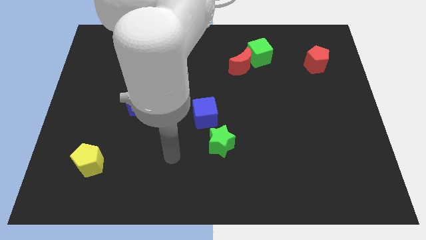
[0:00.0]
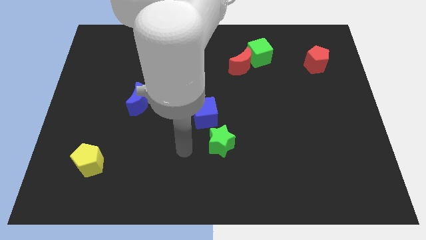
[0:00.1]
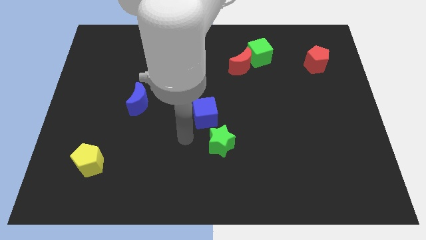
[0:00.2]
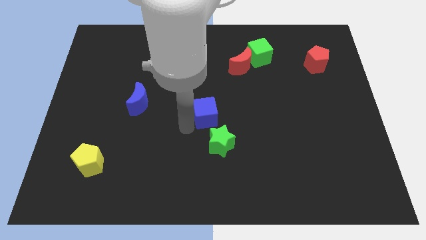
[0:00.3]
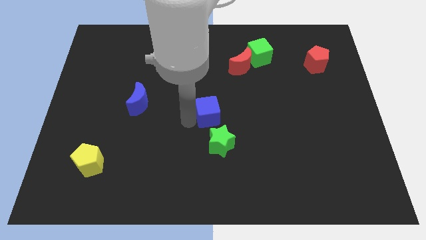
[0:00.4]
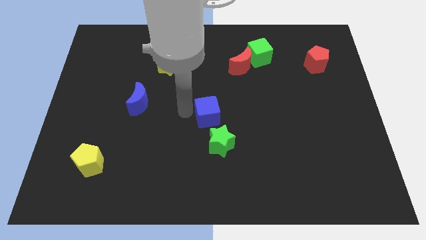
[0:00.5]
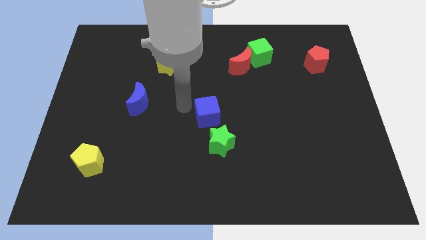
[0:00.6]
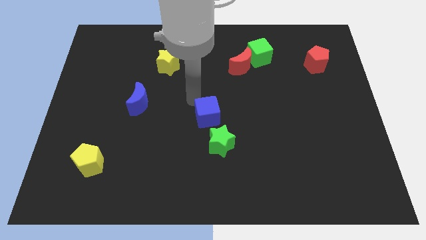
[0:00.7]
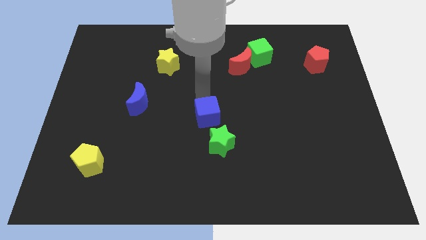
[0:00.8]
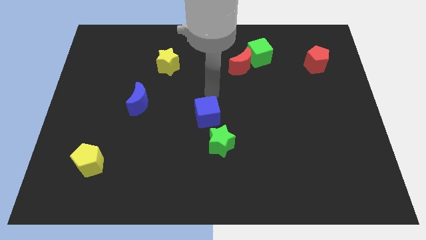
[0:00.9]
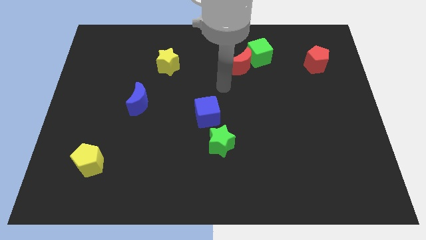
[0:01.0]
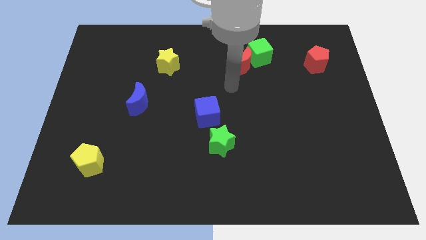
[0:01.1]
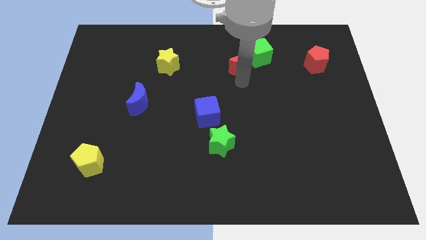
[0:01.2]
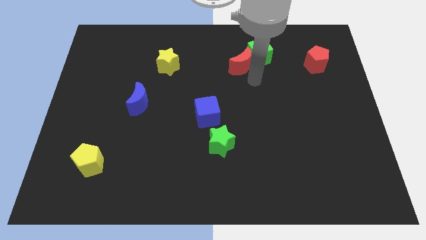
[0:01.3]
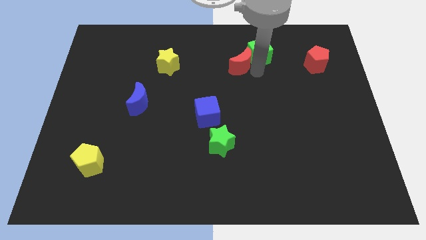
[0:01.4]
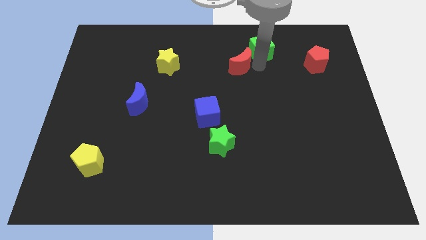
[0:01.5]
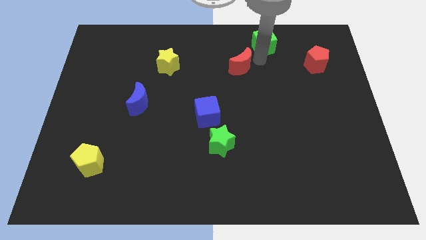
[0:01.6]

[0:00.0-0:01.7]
move the red moon away from the green cube

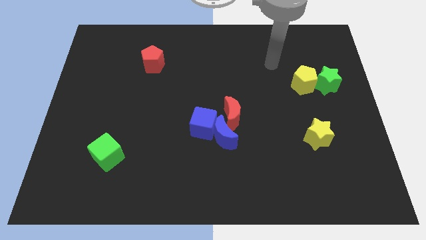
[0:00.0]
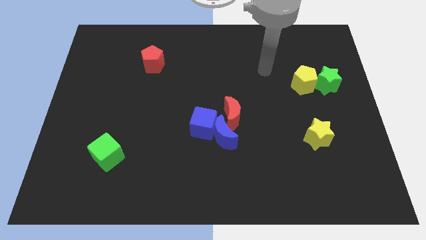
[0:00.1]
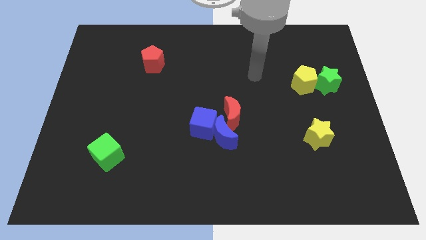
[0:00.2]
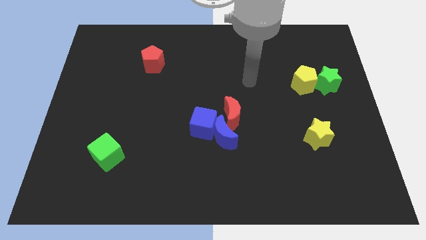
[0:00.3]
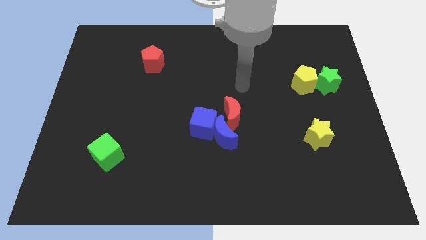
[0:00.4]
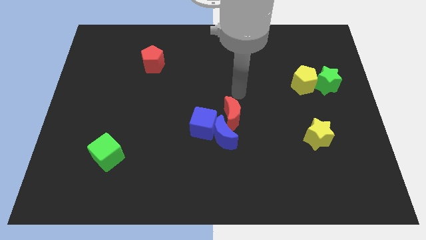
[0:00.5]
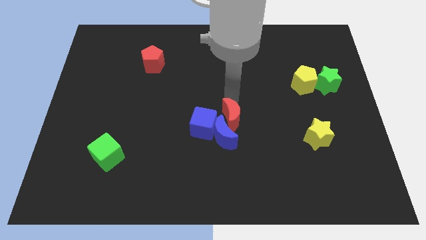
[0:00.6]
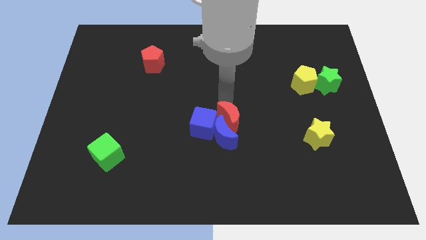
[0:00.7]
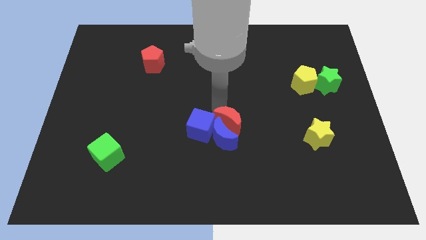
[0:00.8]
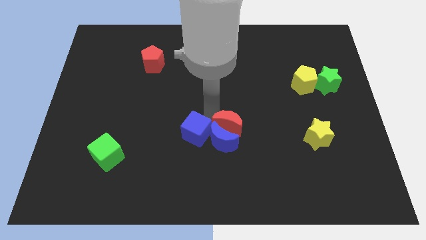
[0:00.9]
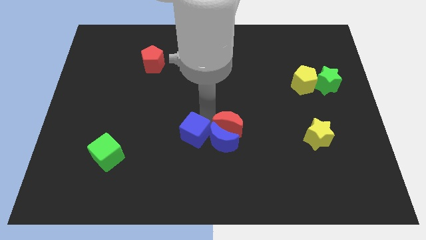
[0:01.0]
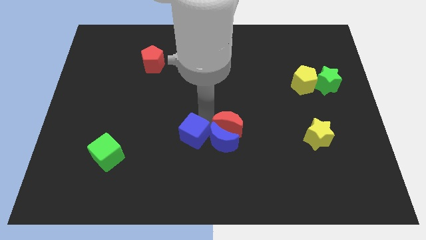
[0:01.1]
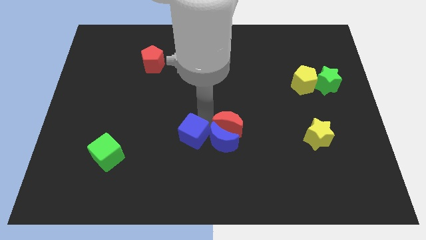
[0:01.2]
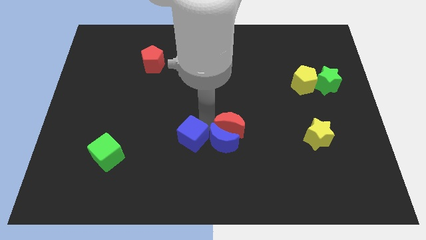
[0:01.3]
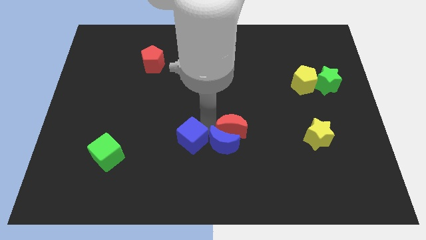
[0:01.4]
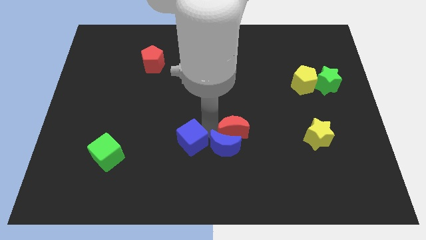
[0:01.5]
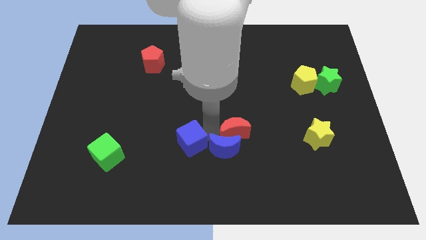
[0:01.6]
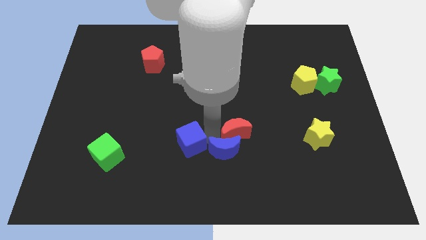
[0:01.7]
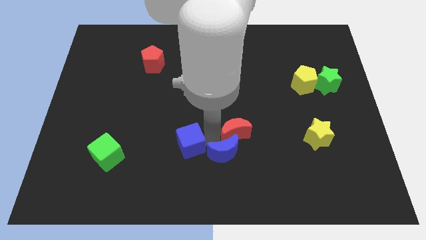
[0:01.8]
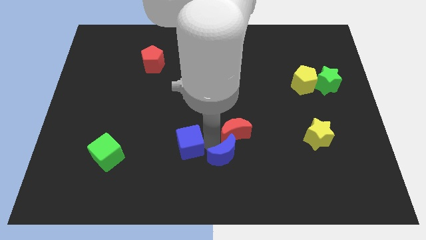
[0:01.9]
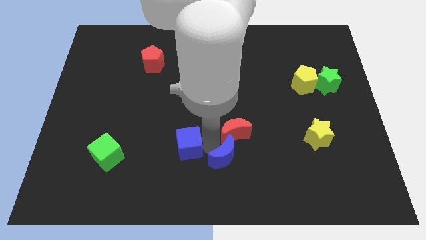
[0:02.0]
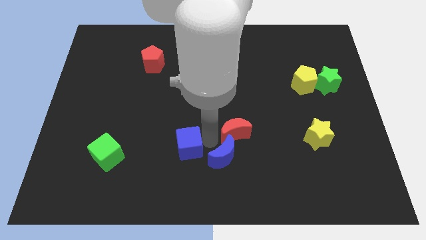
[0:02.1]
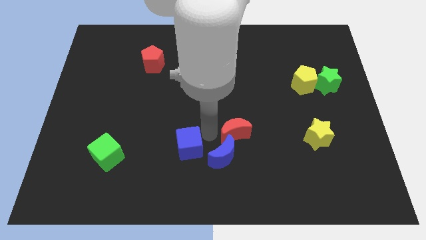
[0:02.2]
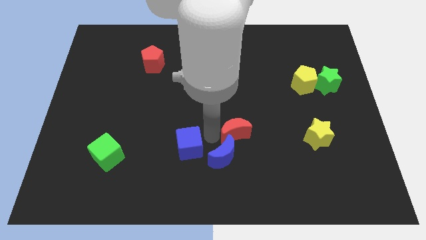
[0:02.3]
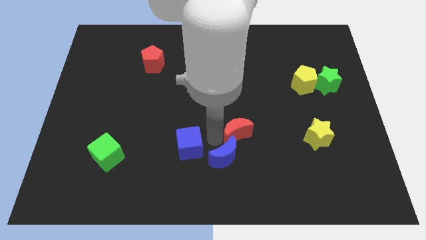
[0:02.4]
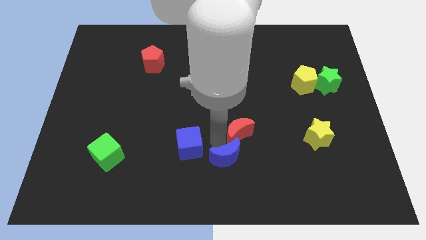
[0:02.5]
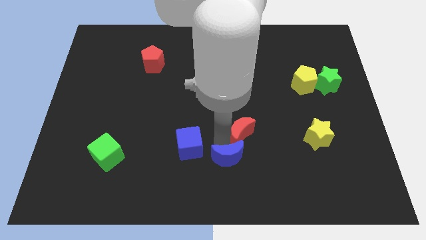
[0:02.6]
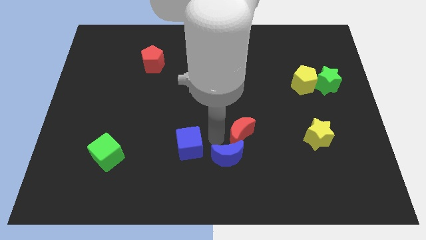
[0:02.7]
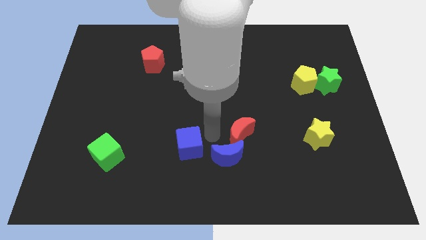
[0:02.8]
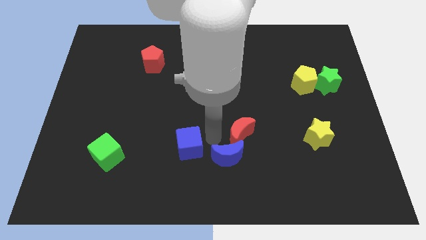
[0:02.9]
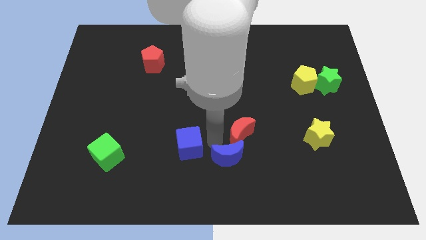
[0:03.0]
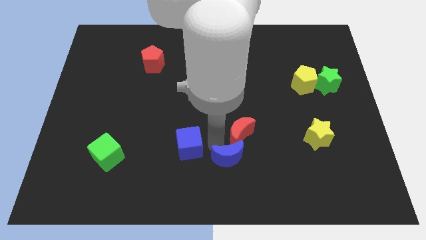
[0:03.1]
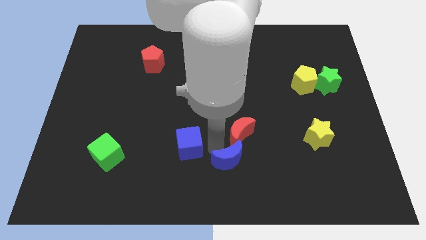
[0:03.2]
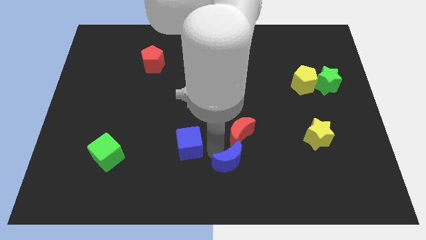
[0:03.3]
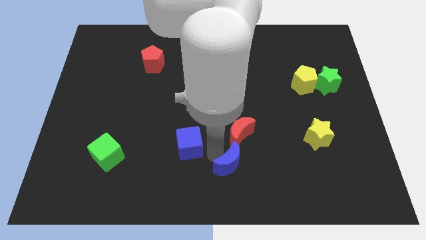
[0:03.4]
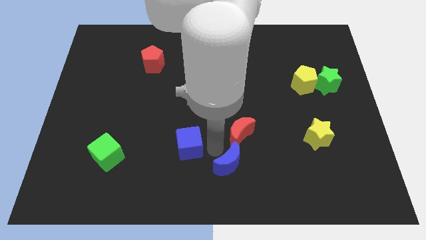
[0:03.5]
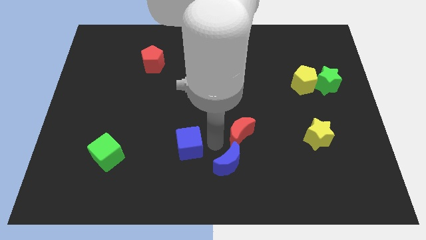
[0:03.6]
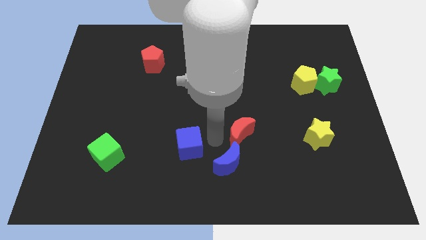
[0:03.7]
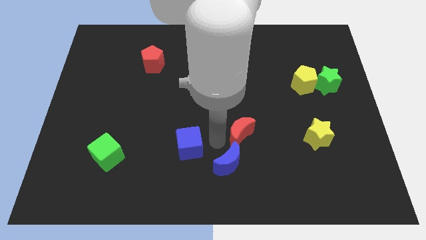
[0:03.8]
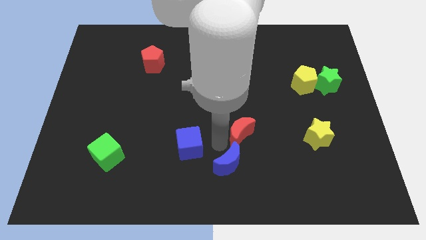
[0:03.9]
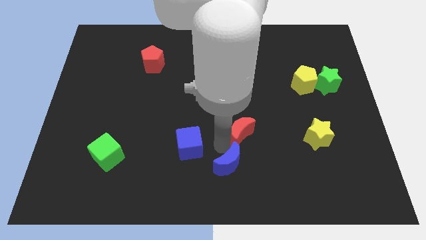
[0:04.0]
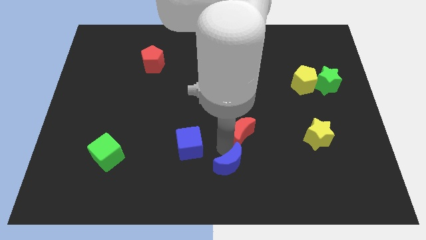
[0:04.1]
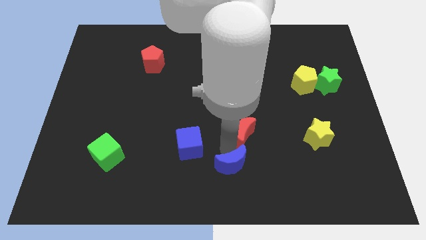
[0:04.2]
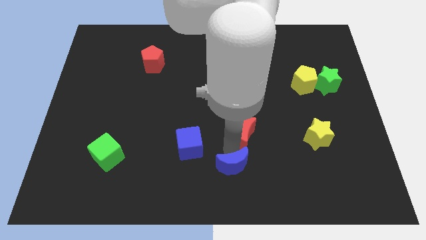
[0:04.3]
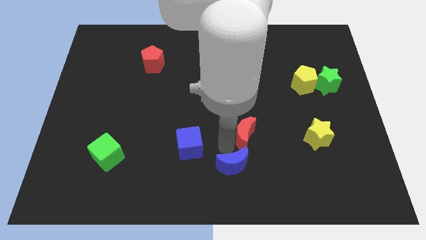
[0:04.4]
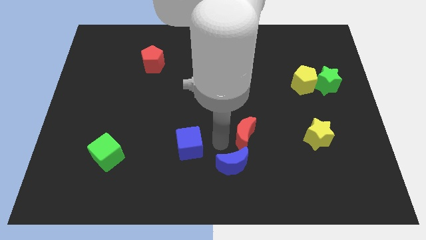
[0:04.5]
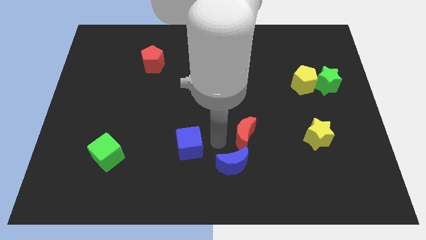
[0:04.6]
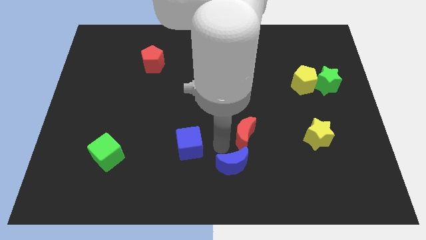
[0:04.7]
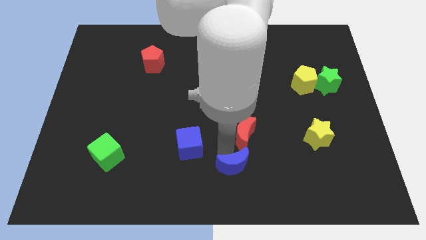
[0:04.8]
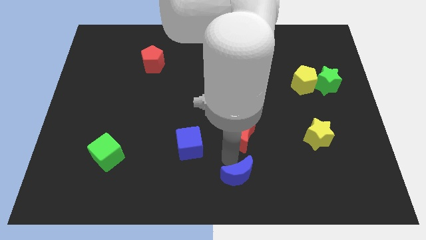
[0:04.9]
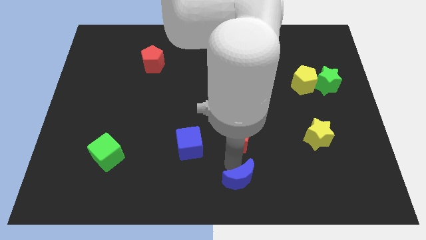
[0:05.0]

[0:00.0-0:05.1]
pull the blue moon apart from the blue cube and red moon

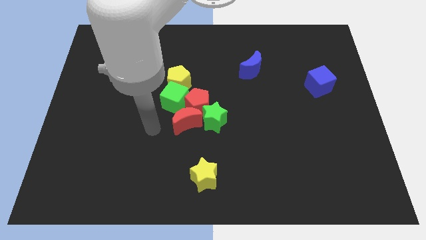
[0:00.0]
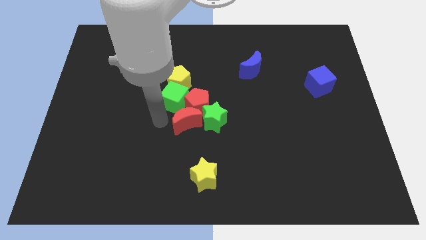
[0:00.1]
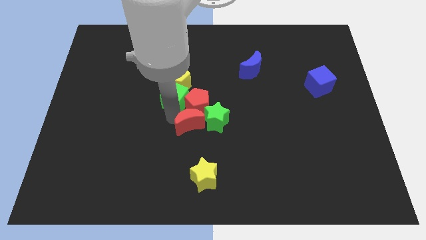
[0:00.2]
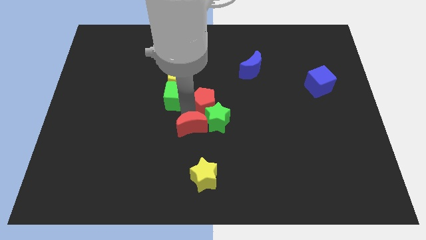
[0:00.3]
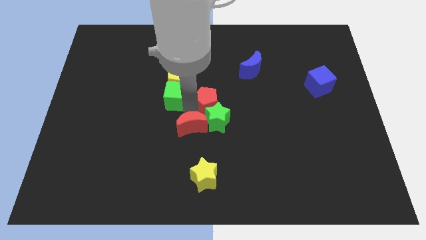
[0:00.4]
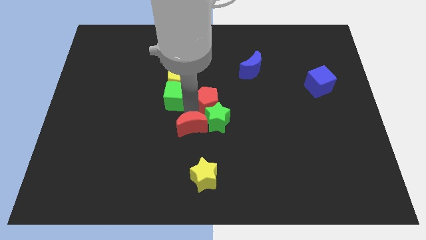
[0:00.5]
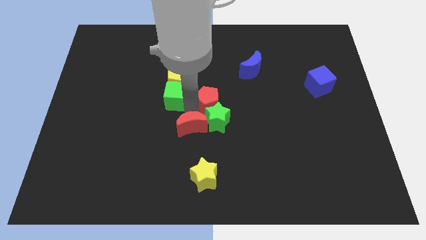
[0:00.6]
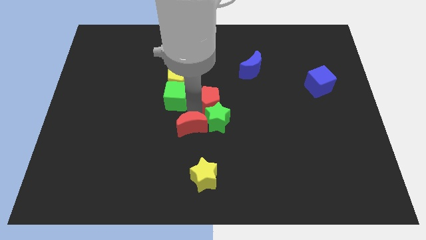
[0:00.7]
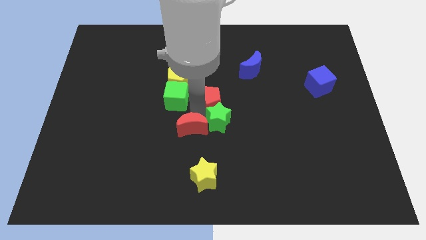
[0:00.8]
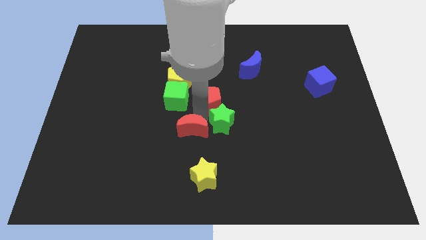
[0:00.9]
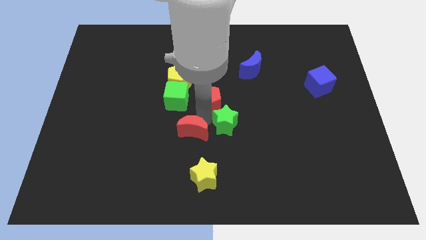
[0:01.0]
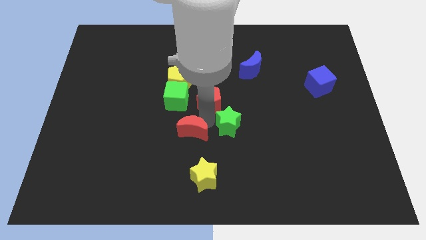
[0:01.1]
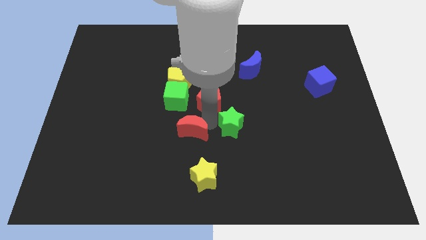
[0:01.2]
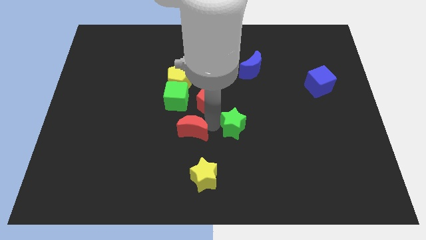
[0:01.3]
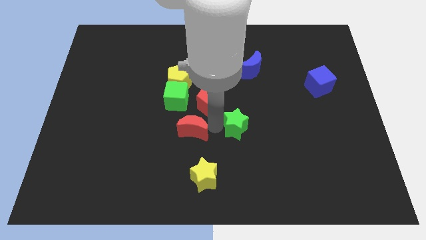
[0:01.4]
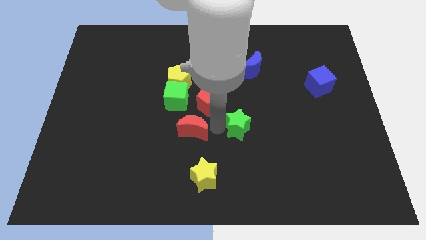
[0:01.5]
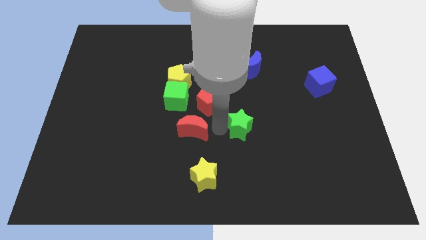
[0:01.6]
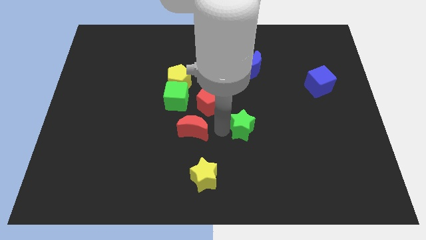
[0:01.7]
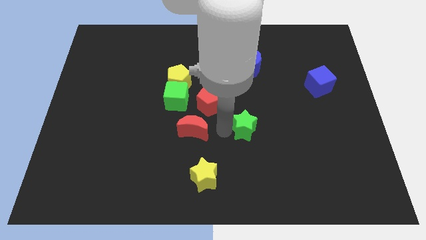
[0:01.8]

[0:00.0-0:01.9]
move the green star away from the red pentagon and red moon

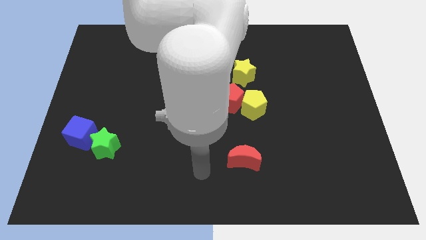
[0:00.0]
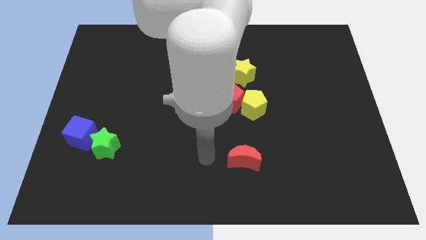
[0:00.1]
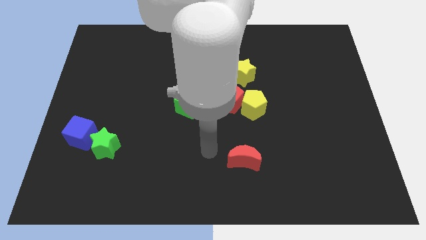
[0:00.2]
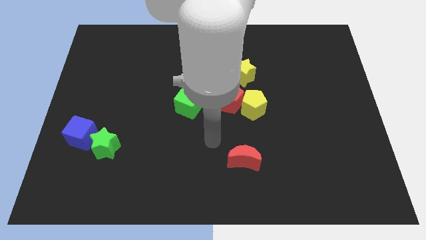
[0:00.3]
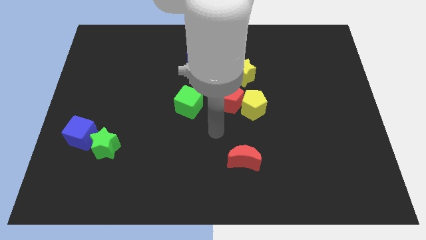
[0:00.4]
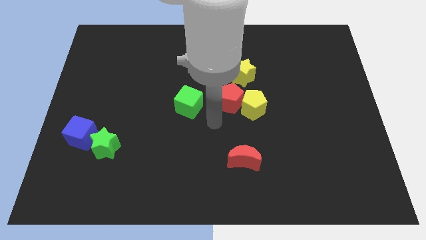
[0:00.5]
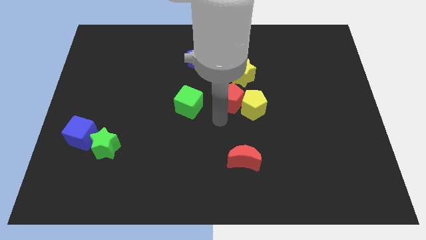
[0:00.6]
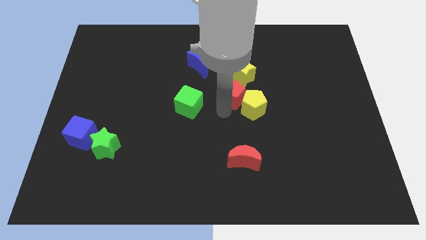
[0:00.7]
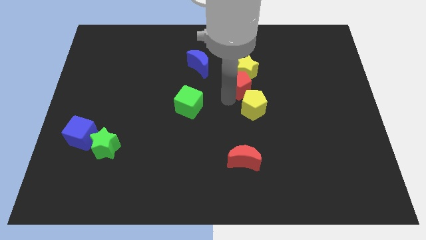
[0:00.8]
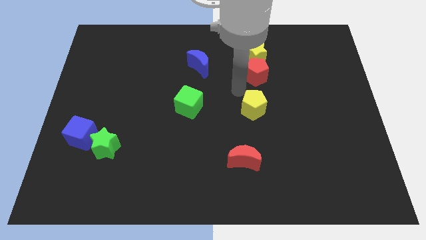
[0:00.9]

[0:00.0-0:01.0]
move the yellow pentagon away from the red pentagon
